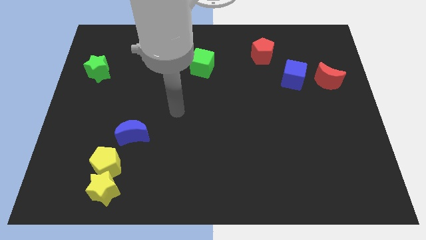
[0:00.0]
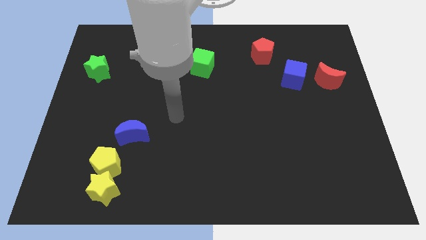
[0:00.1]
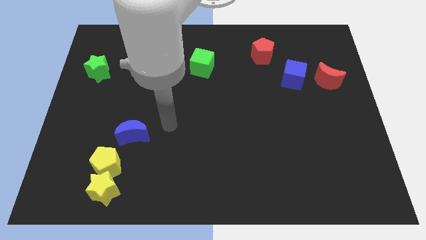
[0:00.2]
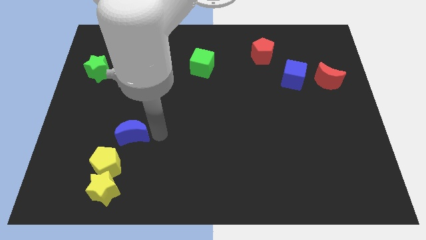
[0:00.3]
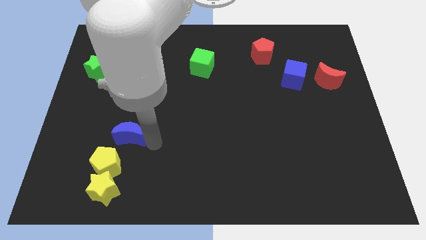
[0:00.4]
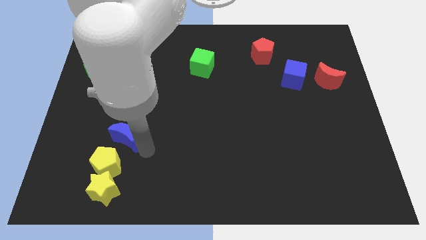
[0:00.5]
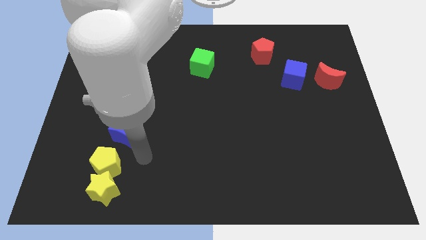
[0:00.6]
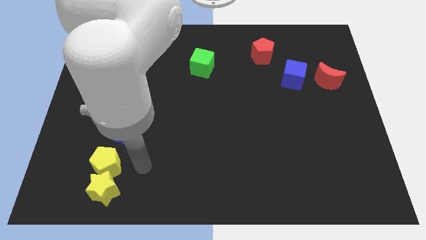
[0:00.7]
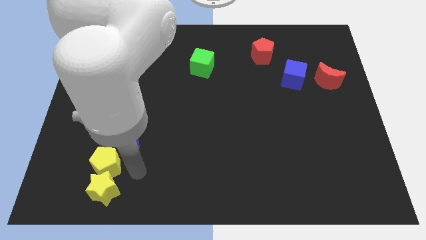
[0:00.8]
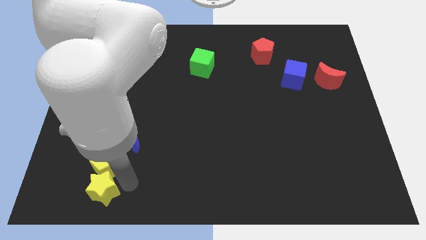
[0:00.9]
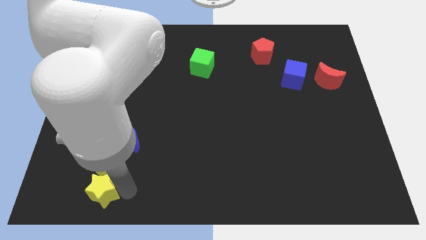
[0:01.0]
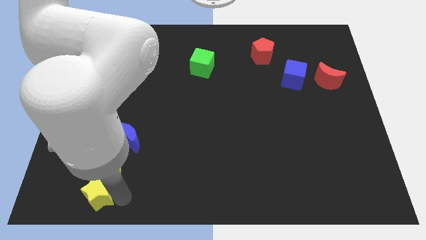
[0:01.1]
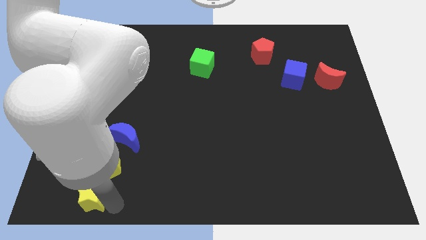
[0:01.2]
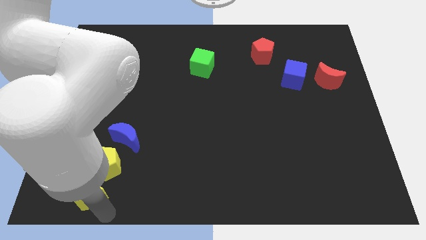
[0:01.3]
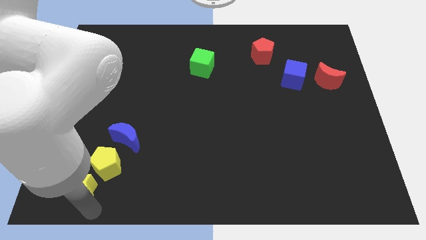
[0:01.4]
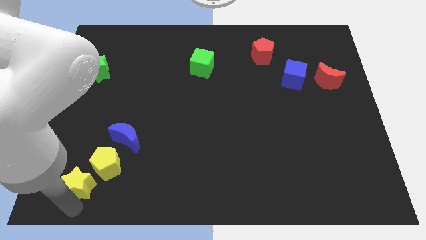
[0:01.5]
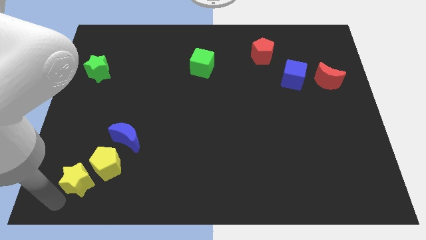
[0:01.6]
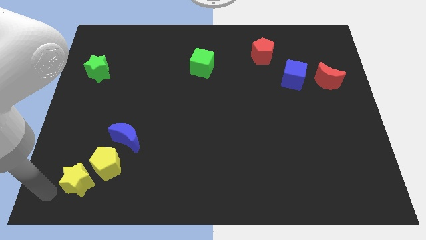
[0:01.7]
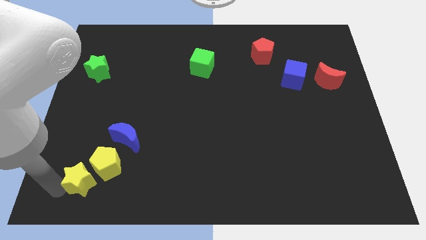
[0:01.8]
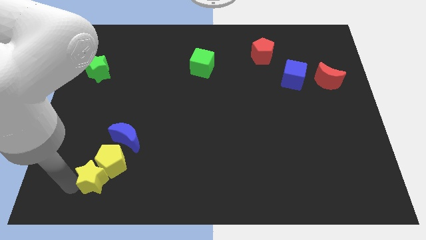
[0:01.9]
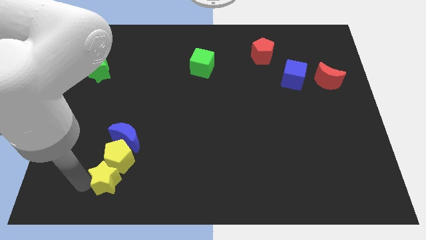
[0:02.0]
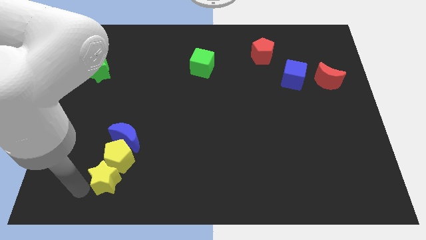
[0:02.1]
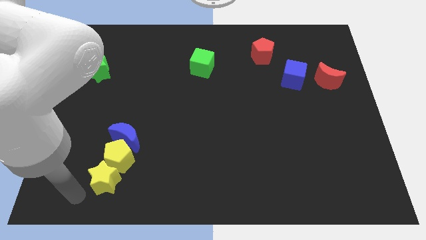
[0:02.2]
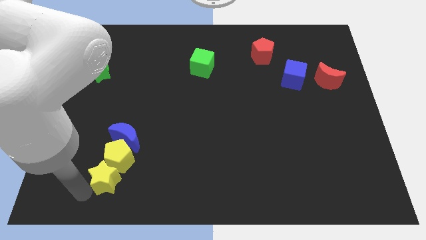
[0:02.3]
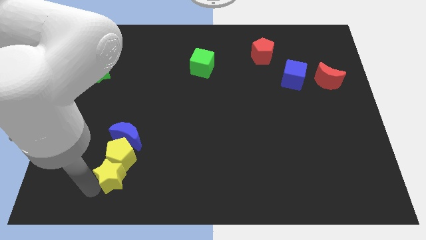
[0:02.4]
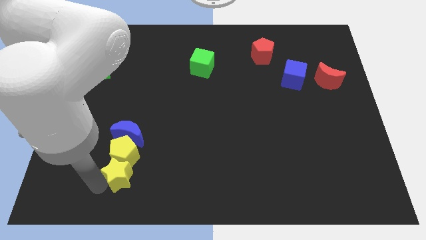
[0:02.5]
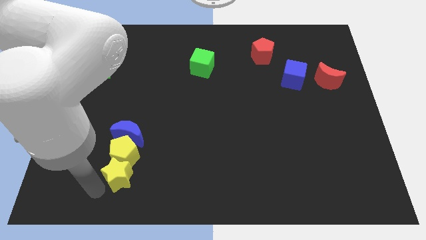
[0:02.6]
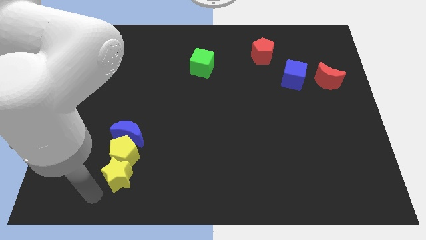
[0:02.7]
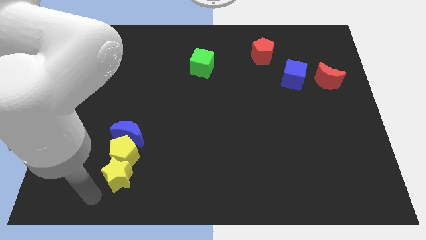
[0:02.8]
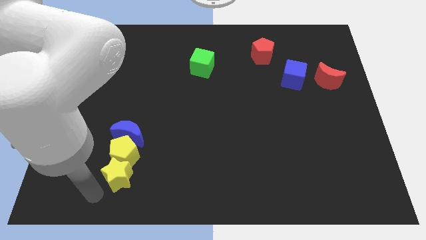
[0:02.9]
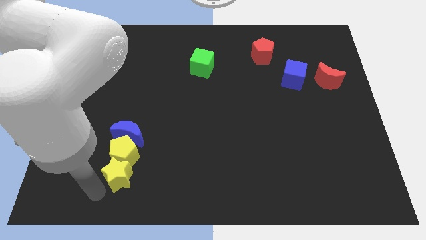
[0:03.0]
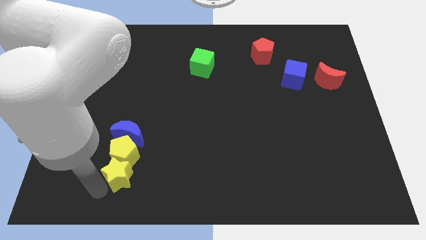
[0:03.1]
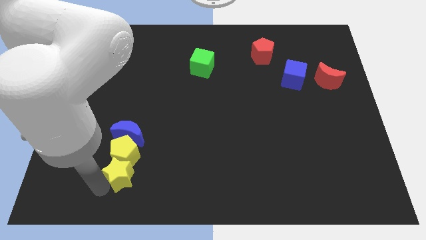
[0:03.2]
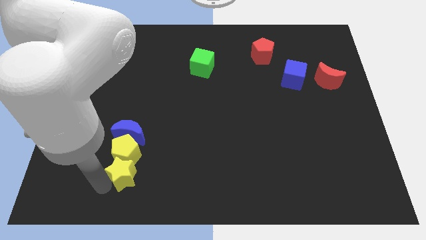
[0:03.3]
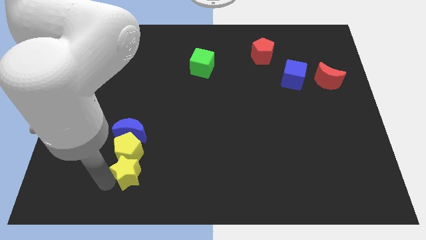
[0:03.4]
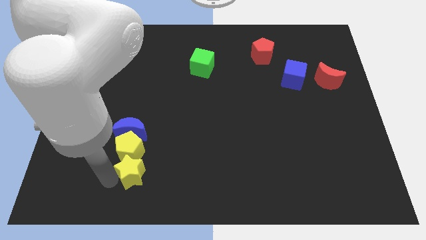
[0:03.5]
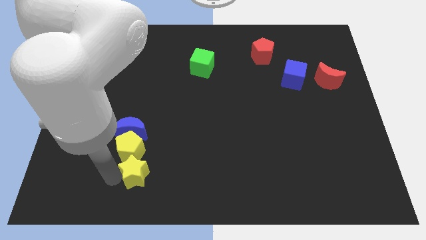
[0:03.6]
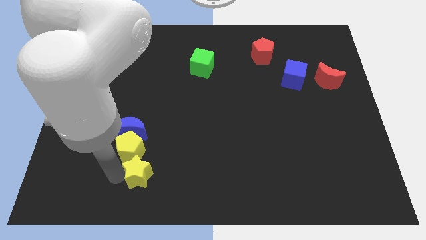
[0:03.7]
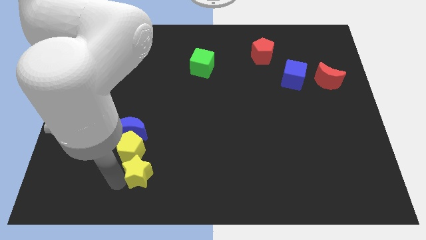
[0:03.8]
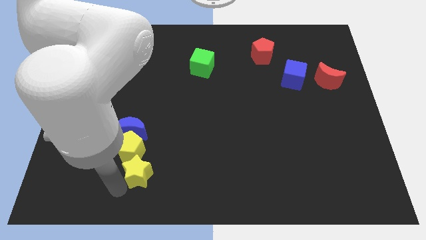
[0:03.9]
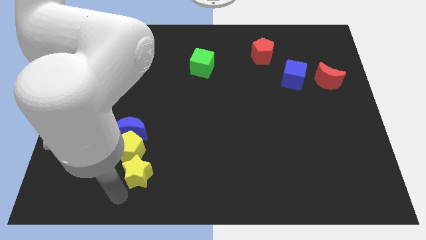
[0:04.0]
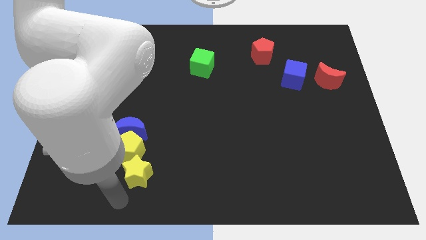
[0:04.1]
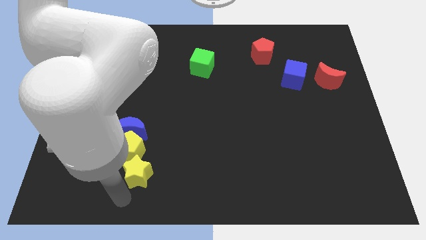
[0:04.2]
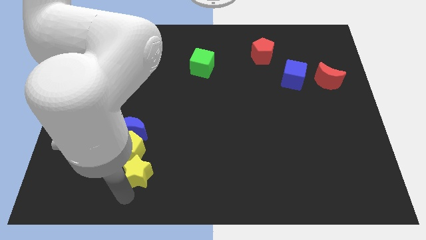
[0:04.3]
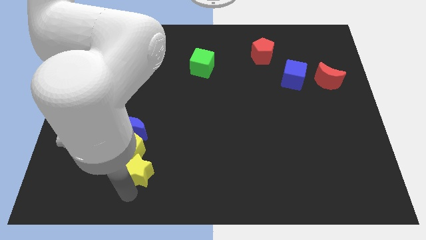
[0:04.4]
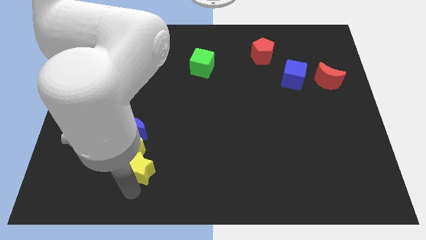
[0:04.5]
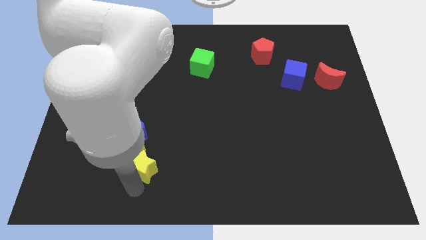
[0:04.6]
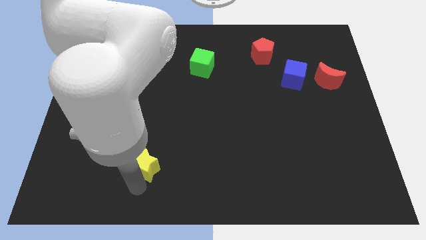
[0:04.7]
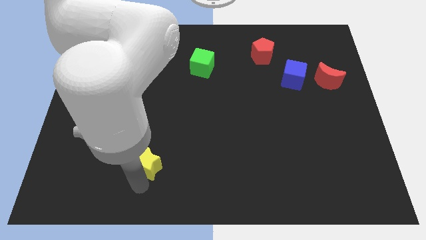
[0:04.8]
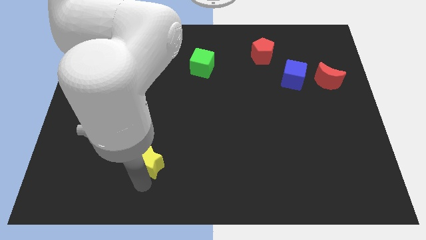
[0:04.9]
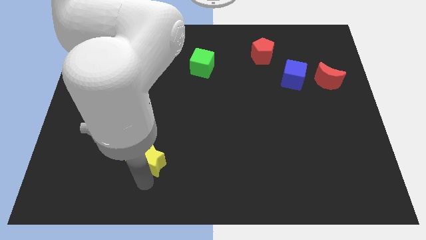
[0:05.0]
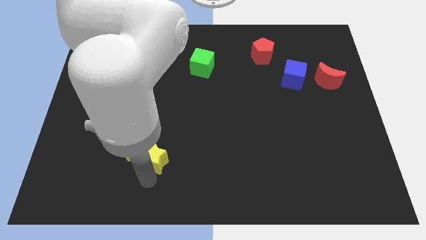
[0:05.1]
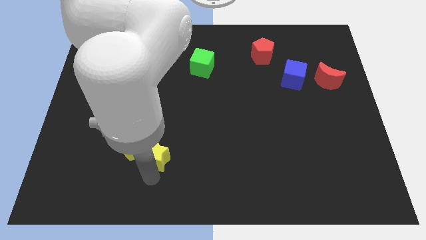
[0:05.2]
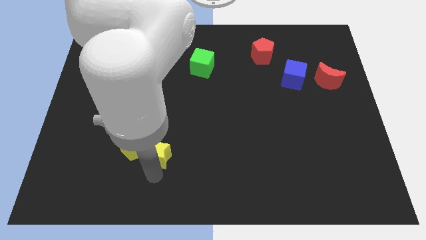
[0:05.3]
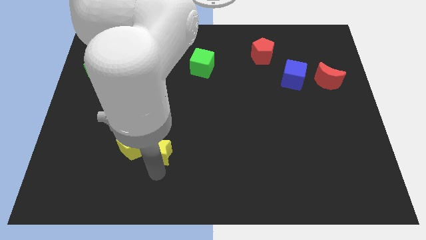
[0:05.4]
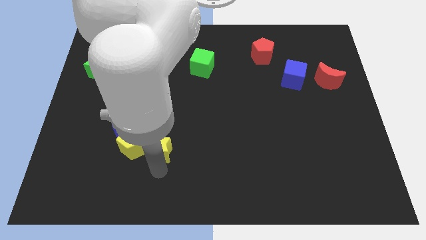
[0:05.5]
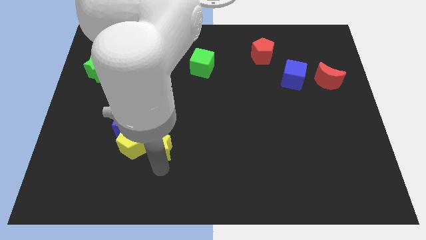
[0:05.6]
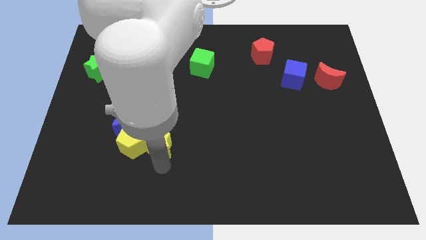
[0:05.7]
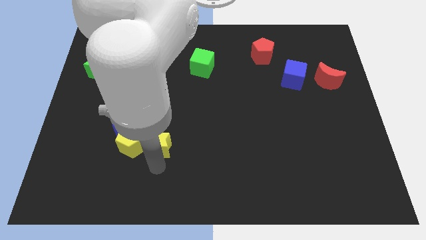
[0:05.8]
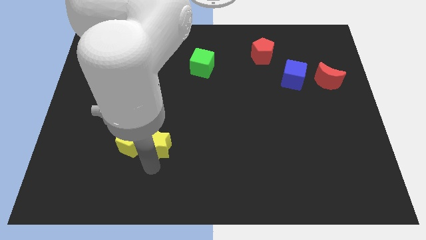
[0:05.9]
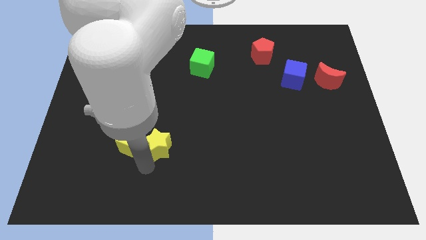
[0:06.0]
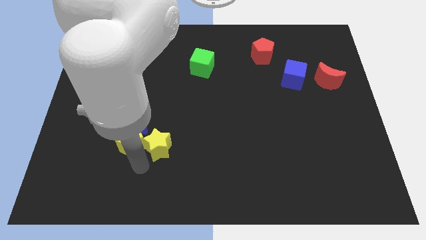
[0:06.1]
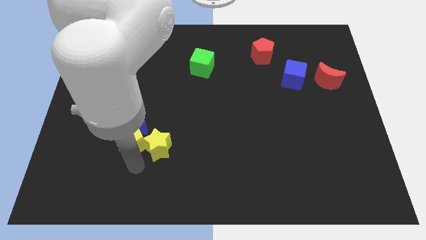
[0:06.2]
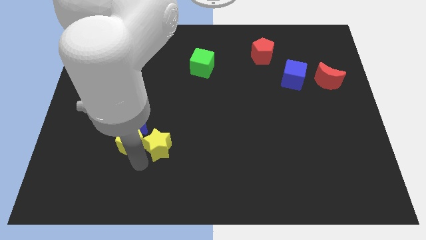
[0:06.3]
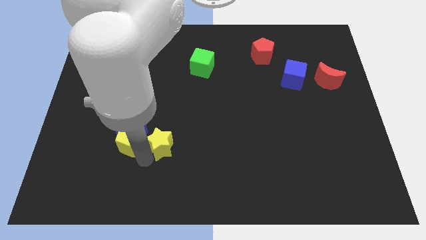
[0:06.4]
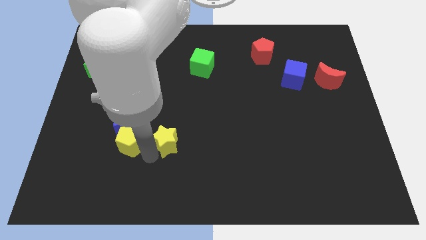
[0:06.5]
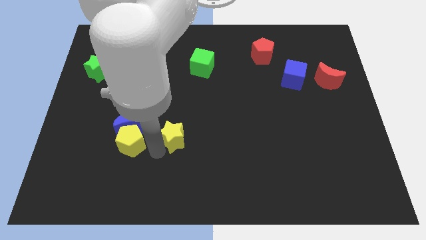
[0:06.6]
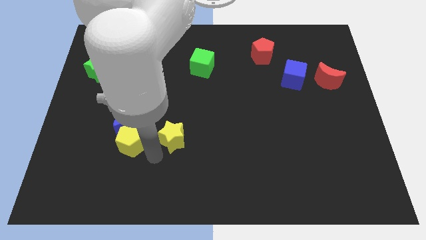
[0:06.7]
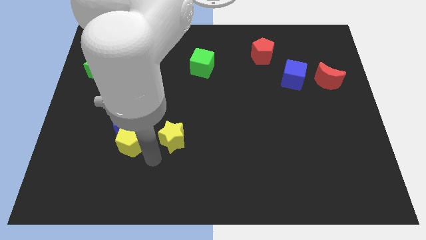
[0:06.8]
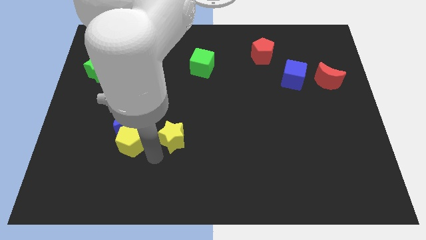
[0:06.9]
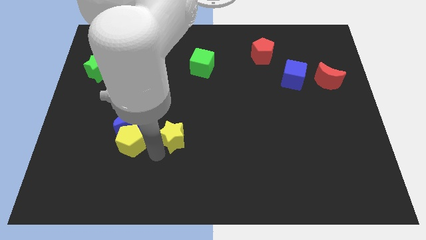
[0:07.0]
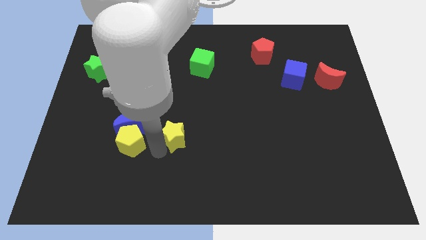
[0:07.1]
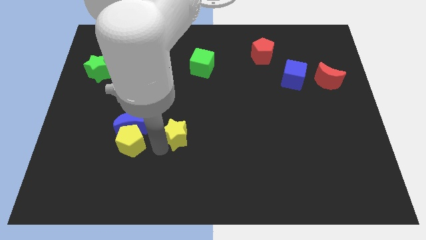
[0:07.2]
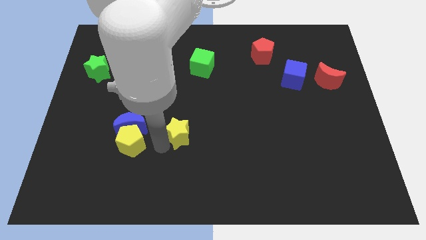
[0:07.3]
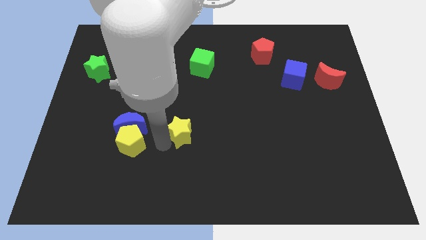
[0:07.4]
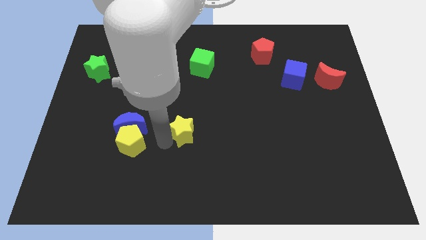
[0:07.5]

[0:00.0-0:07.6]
slide the yellow star upwards and to the right

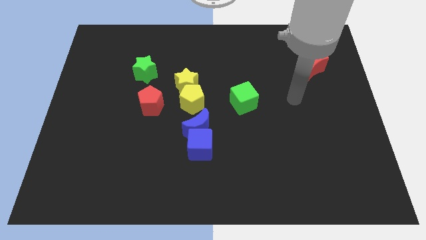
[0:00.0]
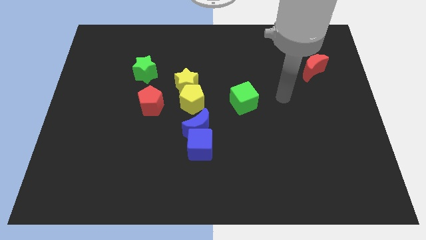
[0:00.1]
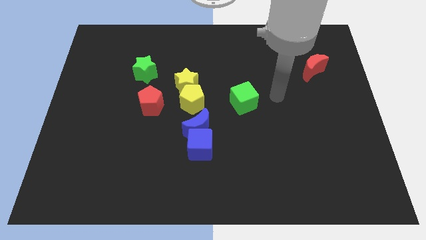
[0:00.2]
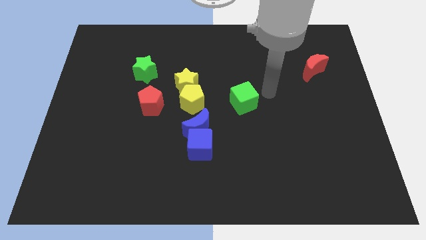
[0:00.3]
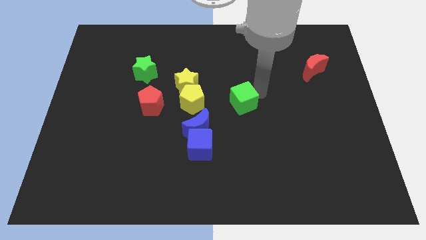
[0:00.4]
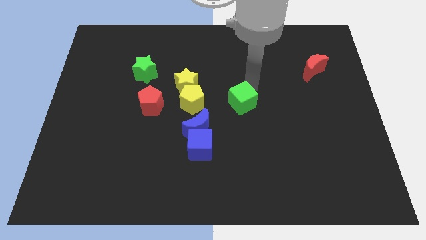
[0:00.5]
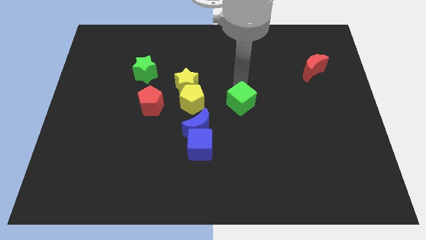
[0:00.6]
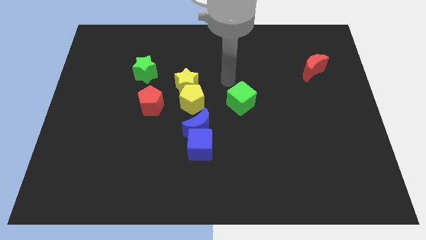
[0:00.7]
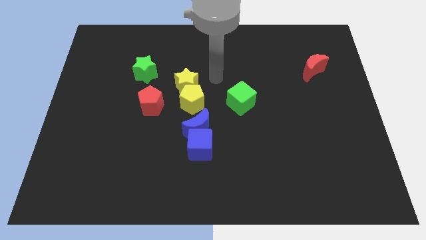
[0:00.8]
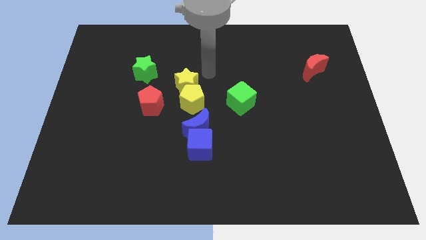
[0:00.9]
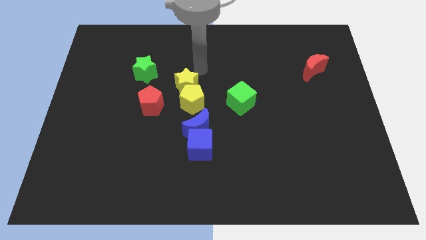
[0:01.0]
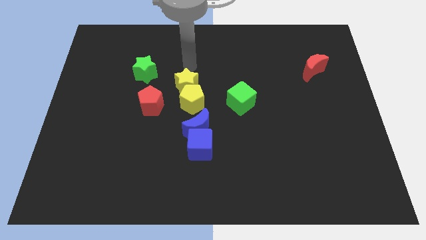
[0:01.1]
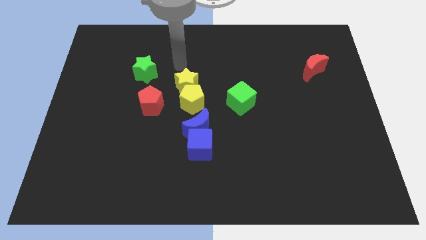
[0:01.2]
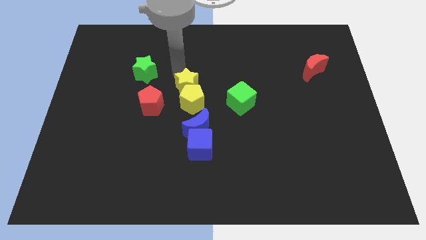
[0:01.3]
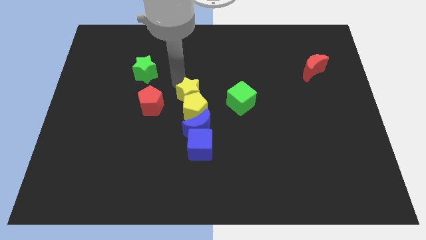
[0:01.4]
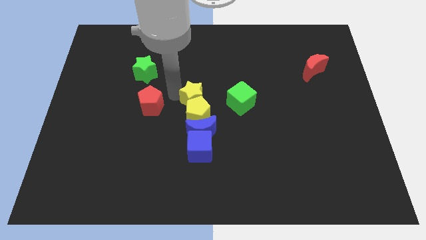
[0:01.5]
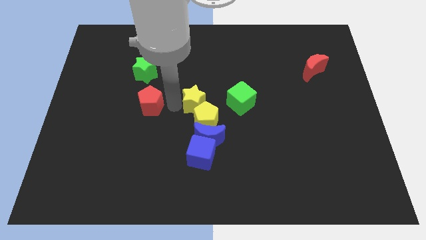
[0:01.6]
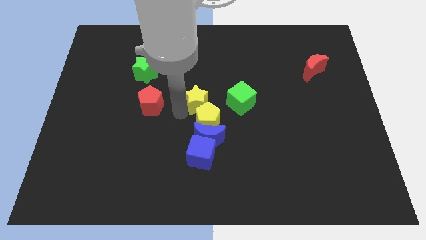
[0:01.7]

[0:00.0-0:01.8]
move the yellow pentagon downwards and to the right diagonally a little
